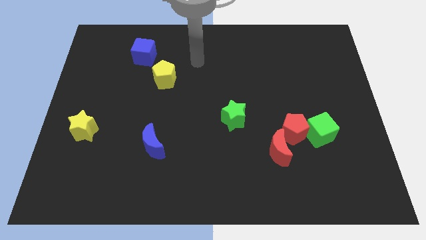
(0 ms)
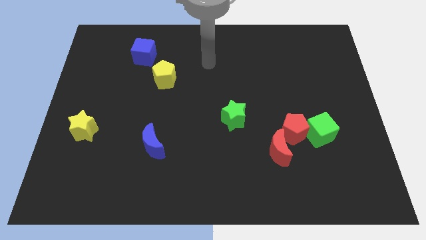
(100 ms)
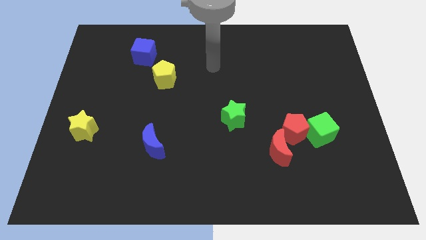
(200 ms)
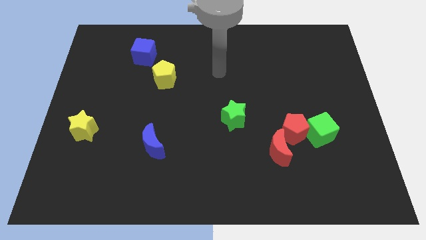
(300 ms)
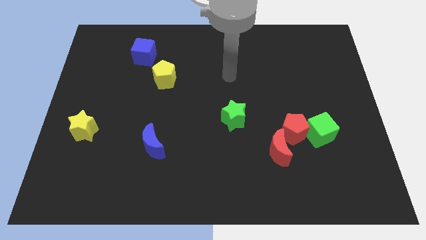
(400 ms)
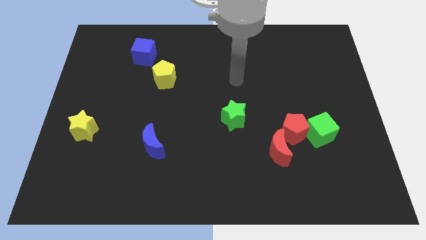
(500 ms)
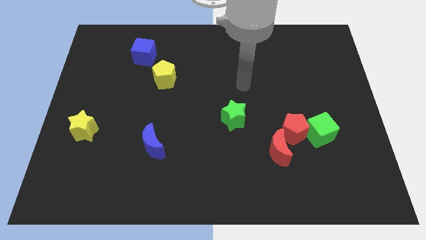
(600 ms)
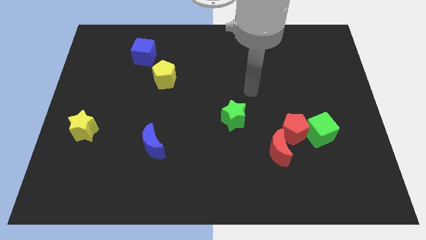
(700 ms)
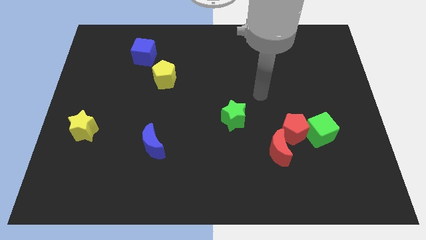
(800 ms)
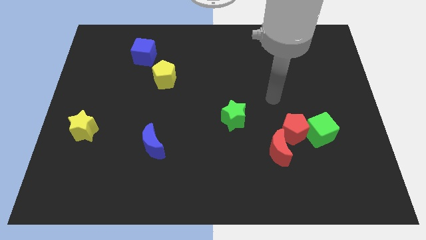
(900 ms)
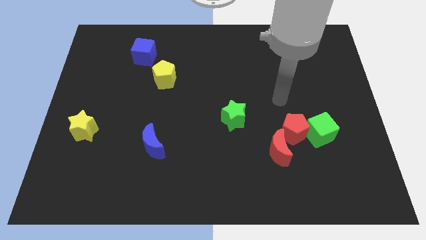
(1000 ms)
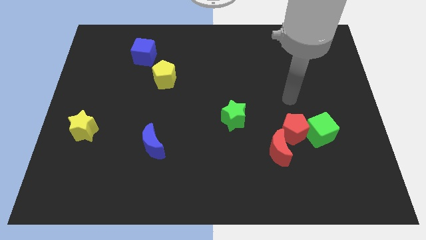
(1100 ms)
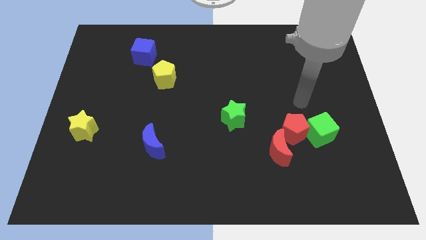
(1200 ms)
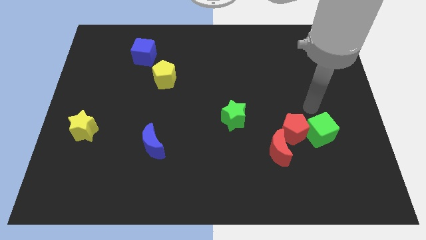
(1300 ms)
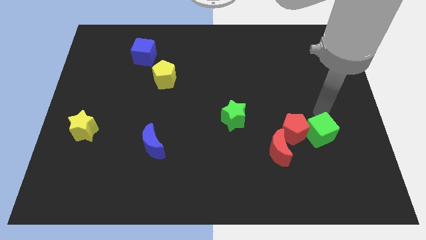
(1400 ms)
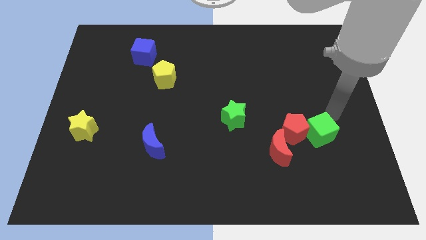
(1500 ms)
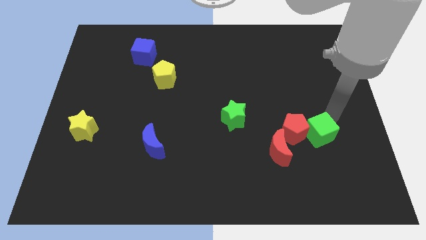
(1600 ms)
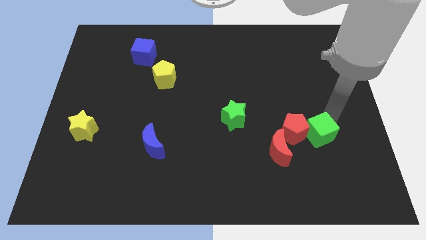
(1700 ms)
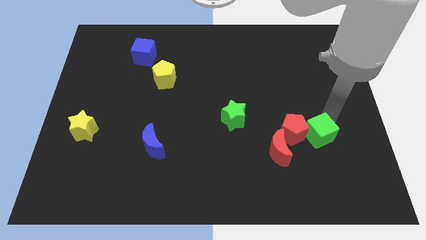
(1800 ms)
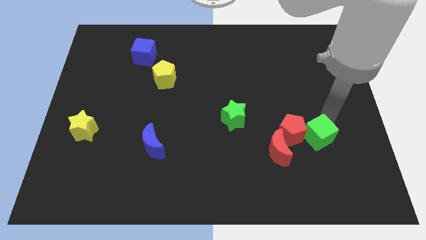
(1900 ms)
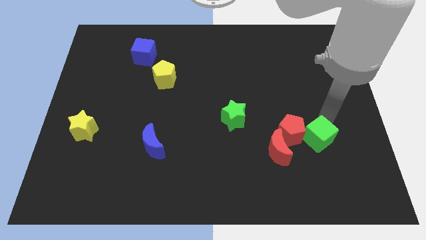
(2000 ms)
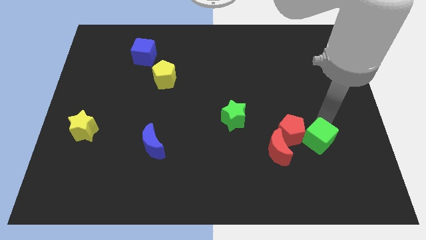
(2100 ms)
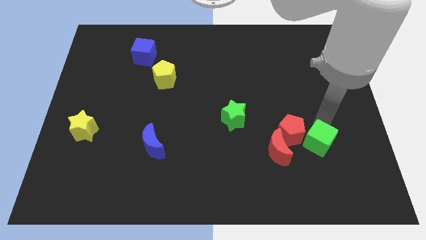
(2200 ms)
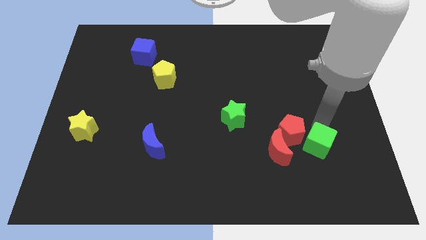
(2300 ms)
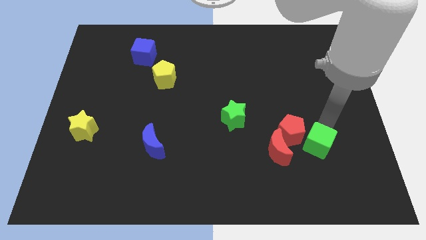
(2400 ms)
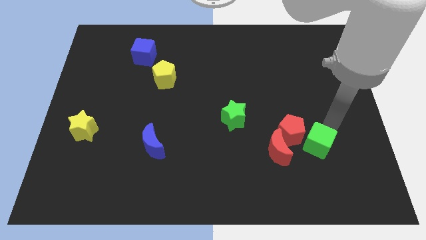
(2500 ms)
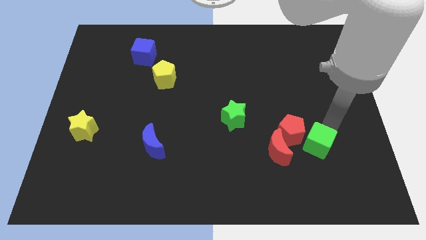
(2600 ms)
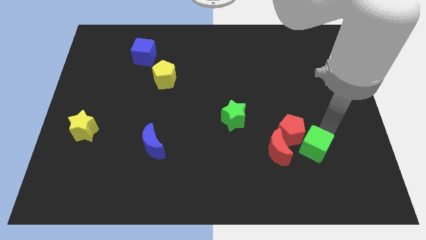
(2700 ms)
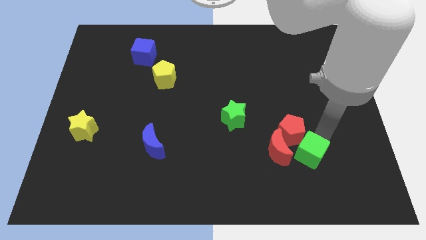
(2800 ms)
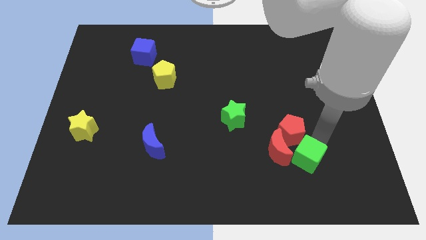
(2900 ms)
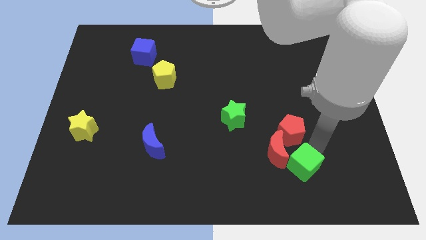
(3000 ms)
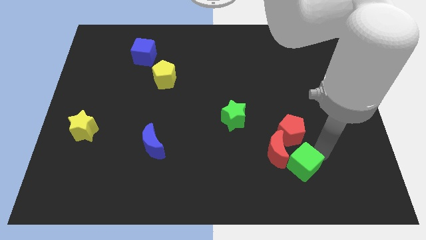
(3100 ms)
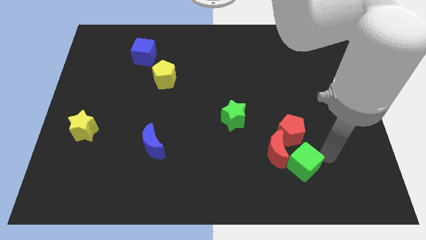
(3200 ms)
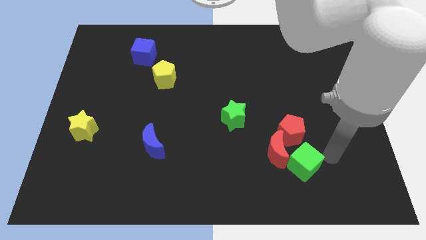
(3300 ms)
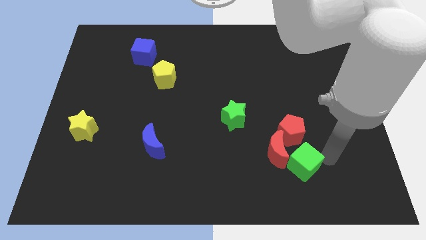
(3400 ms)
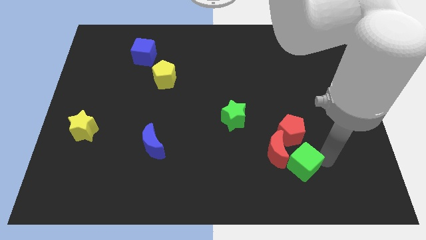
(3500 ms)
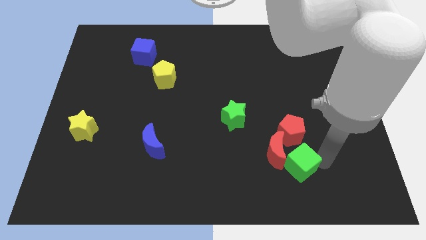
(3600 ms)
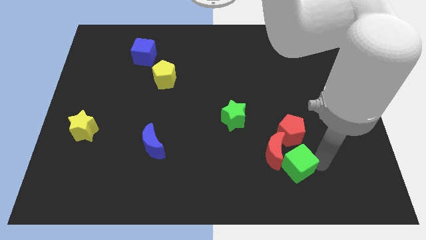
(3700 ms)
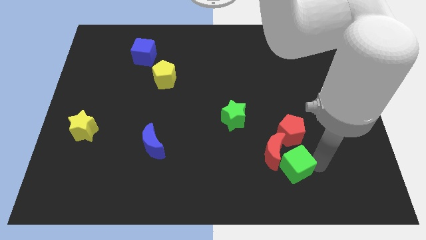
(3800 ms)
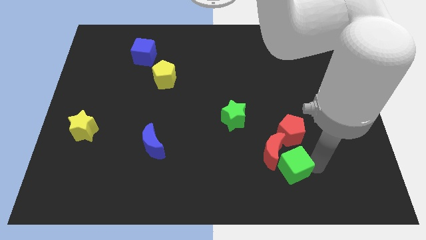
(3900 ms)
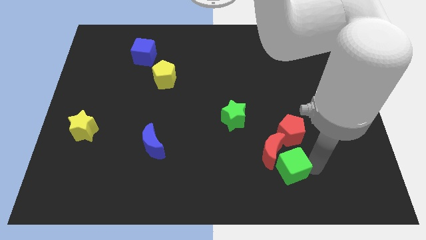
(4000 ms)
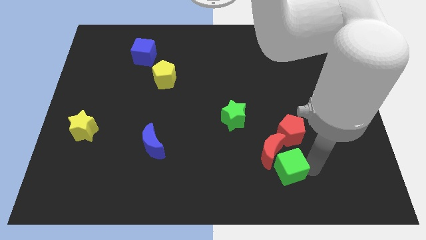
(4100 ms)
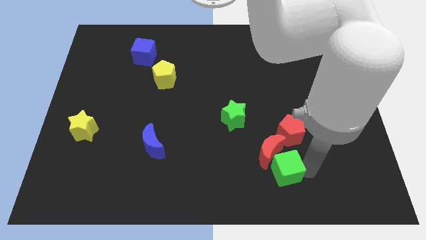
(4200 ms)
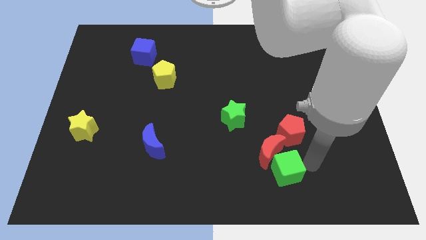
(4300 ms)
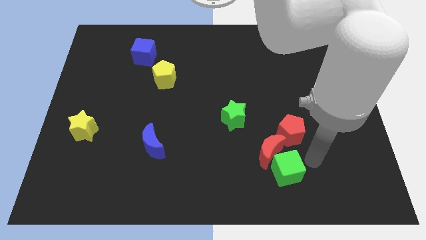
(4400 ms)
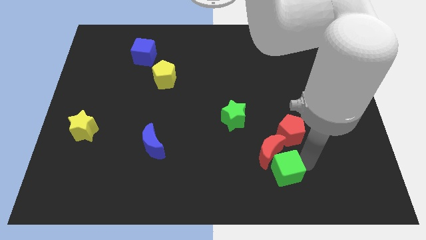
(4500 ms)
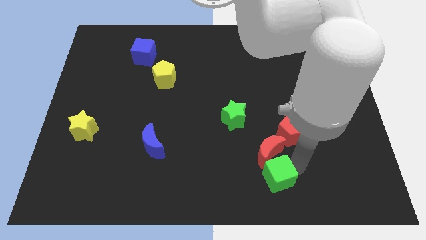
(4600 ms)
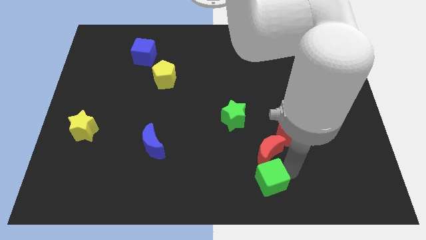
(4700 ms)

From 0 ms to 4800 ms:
slide the green cube to the bottom side

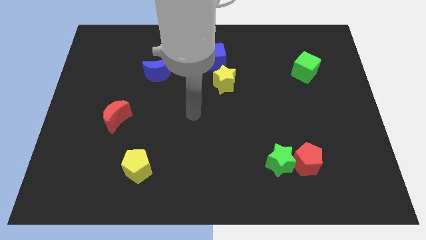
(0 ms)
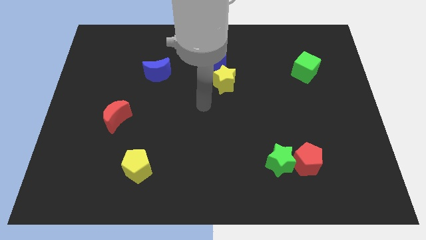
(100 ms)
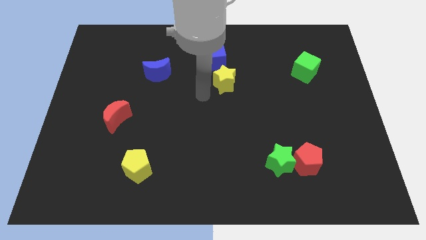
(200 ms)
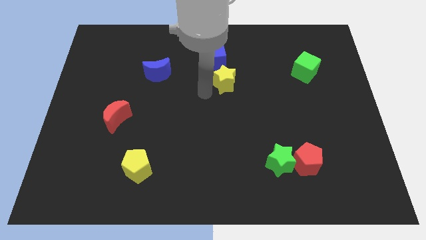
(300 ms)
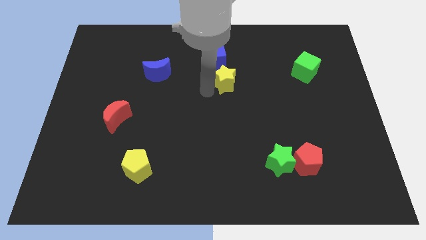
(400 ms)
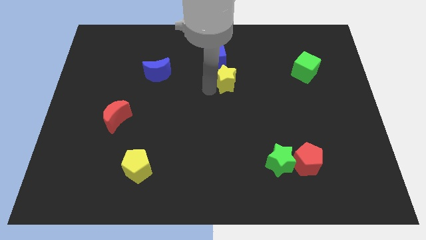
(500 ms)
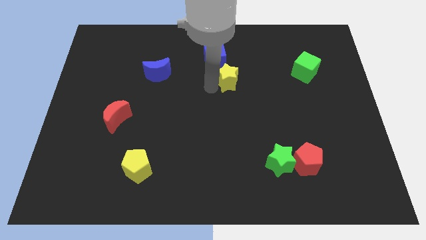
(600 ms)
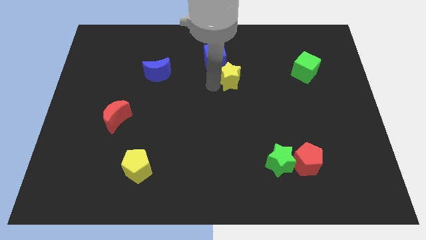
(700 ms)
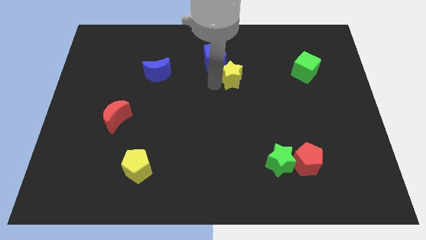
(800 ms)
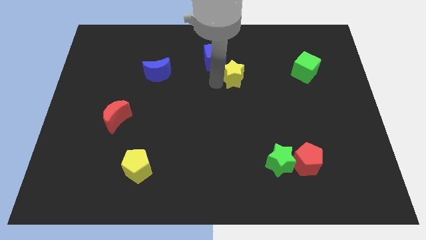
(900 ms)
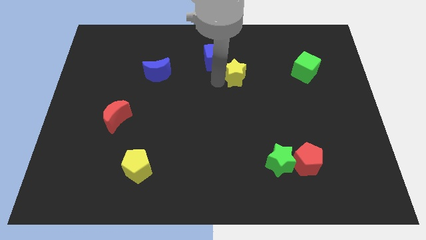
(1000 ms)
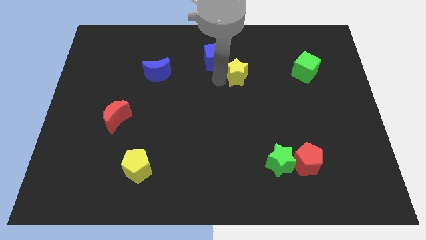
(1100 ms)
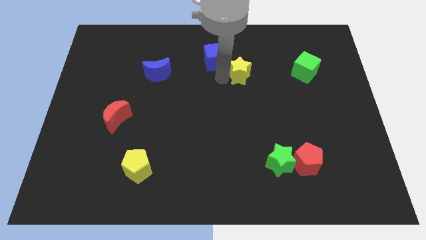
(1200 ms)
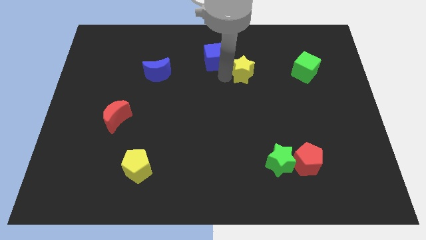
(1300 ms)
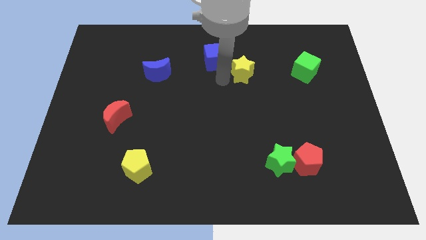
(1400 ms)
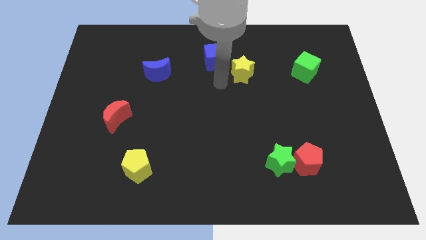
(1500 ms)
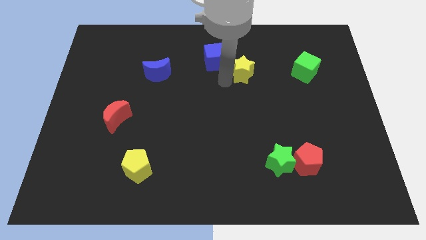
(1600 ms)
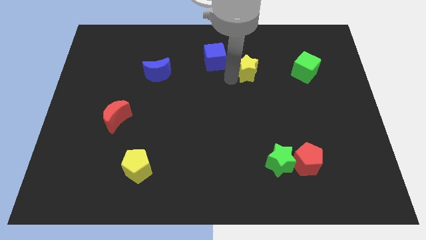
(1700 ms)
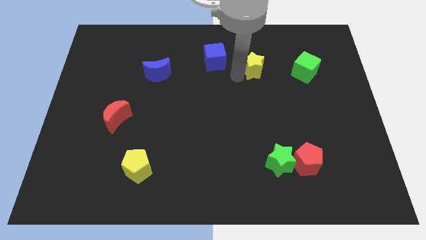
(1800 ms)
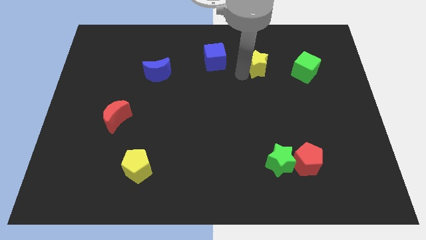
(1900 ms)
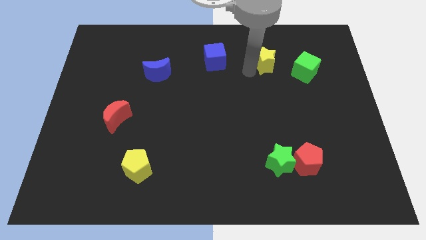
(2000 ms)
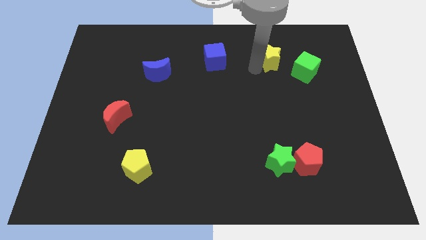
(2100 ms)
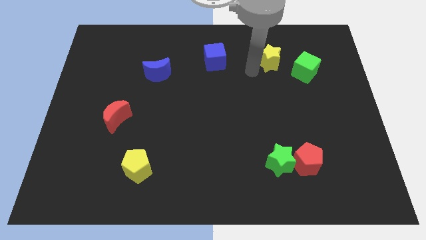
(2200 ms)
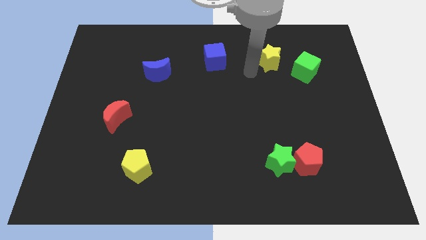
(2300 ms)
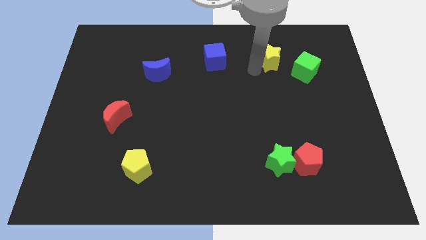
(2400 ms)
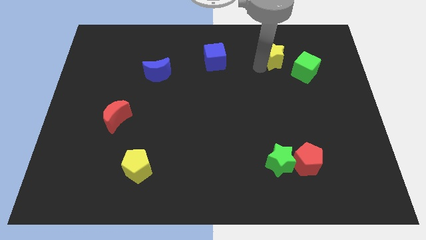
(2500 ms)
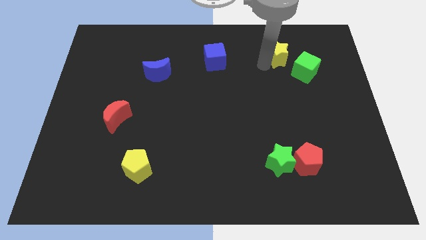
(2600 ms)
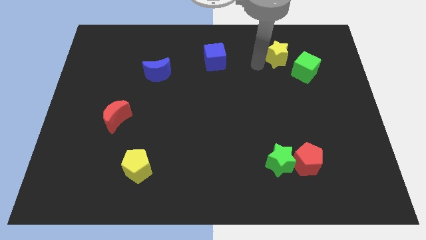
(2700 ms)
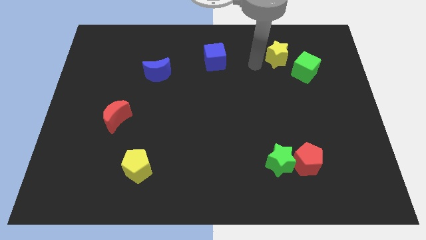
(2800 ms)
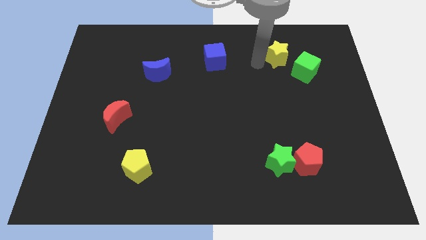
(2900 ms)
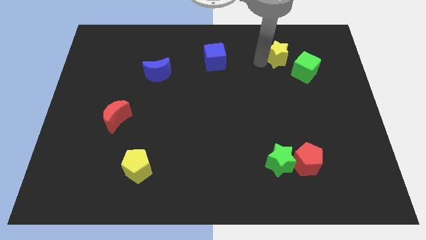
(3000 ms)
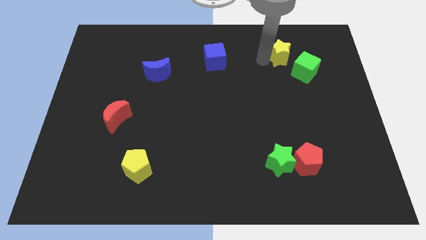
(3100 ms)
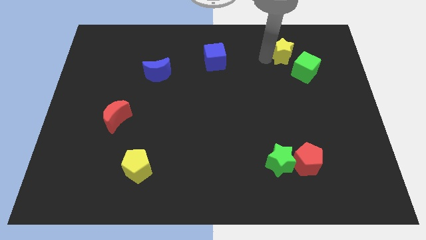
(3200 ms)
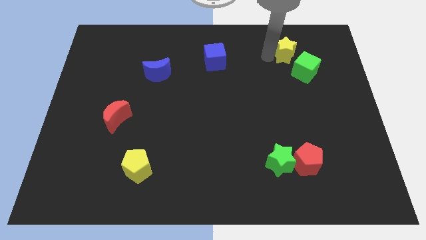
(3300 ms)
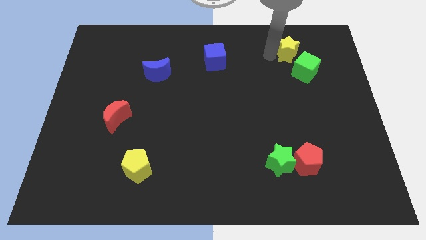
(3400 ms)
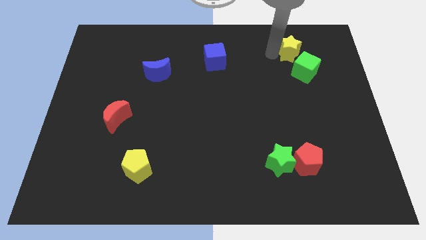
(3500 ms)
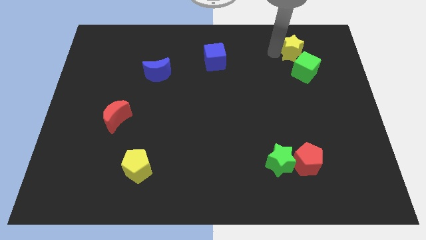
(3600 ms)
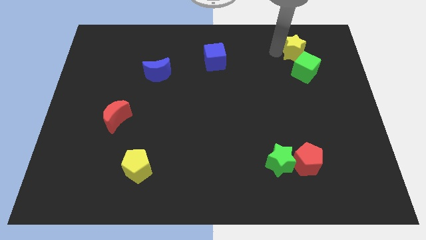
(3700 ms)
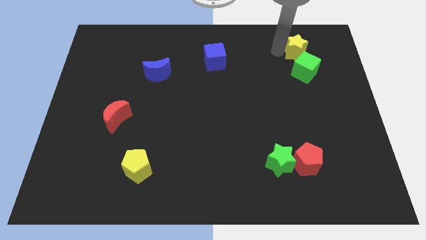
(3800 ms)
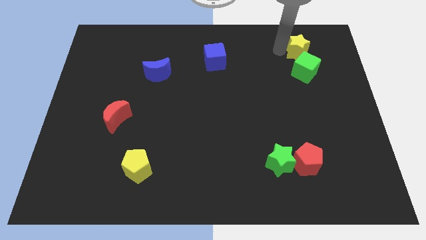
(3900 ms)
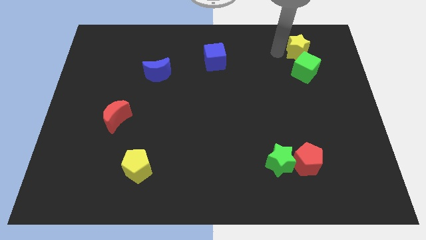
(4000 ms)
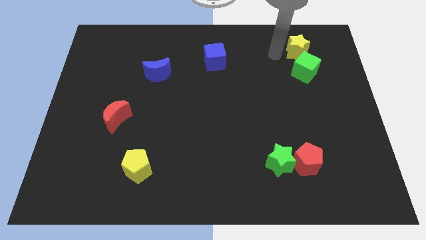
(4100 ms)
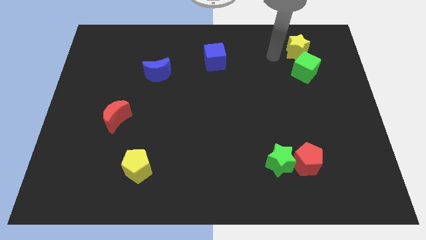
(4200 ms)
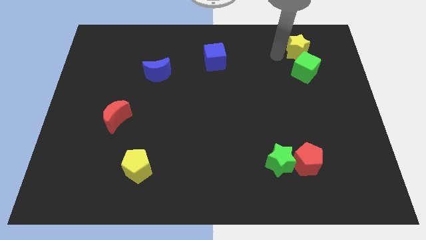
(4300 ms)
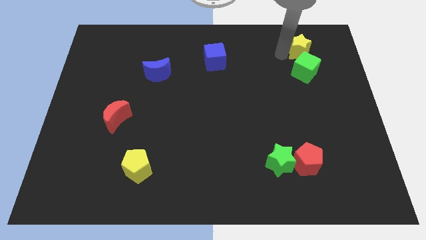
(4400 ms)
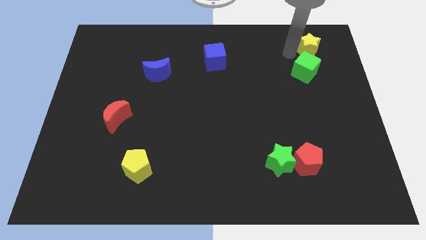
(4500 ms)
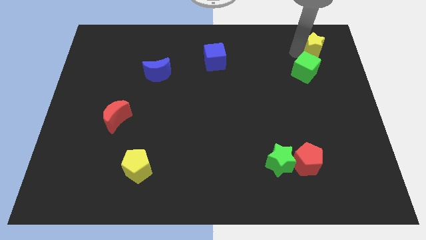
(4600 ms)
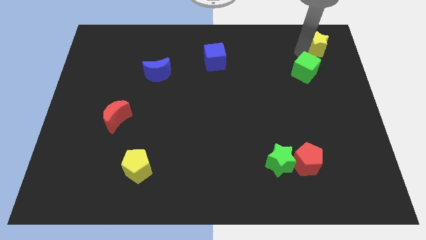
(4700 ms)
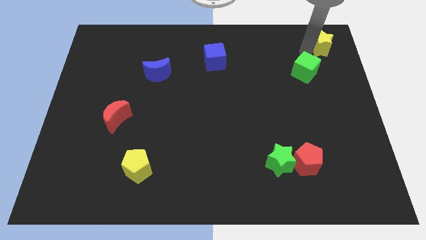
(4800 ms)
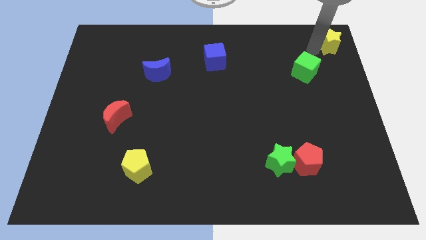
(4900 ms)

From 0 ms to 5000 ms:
move the yellow star to the upper right corner
